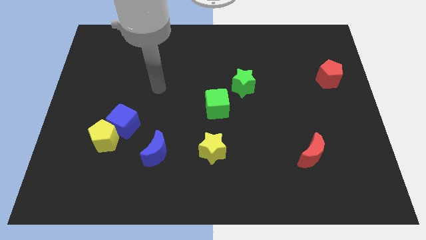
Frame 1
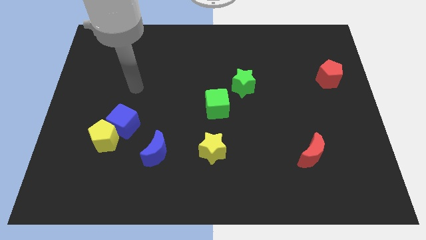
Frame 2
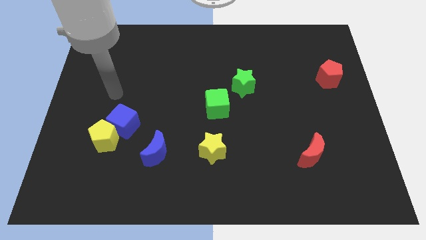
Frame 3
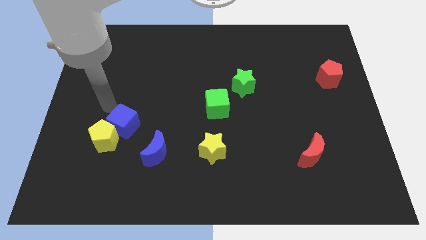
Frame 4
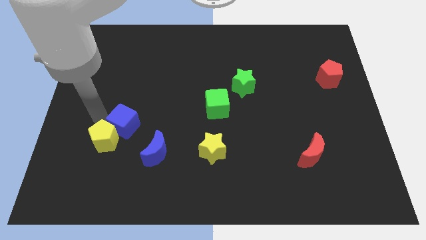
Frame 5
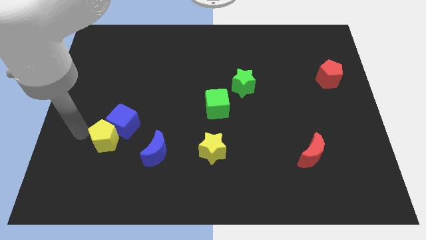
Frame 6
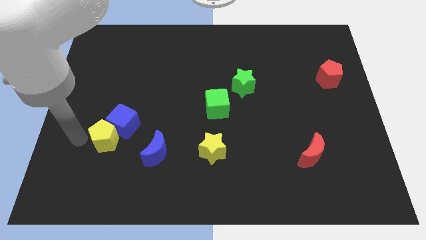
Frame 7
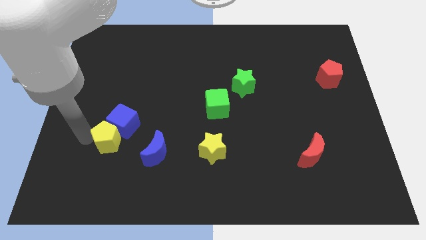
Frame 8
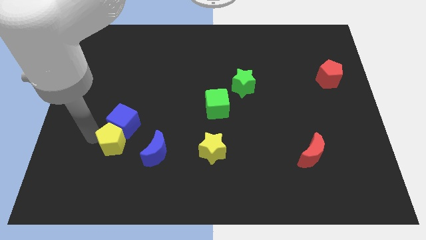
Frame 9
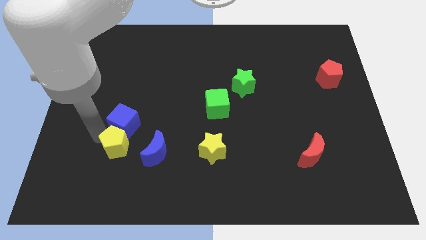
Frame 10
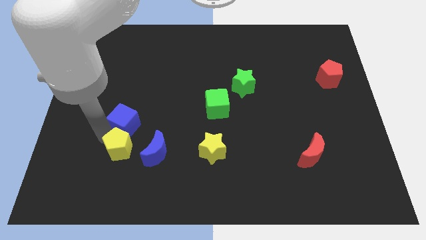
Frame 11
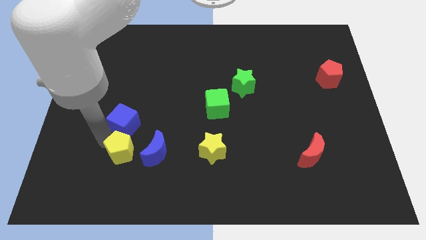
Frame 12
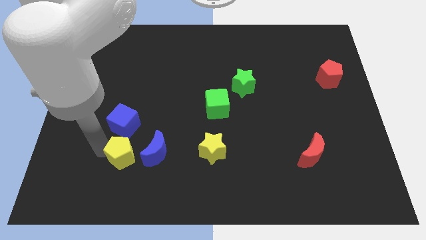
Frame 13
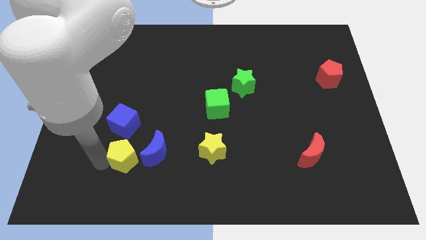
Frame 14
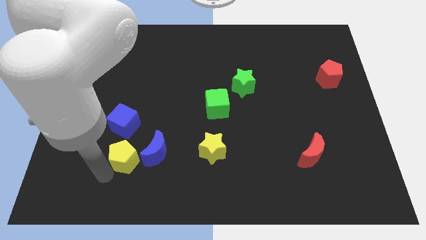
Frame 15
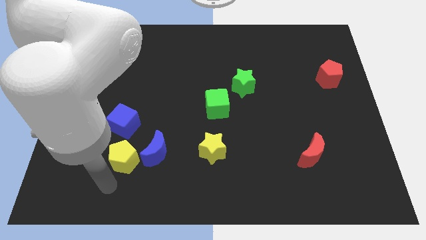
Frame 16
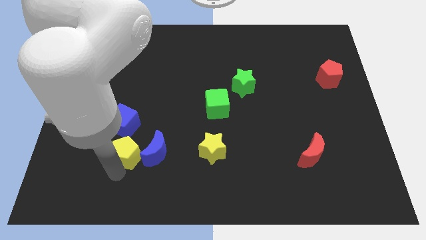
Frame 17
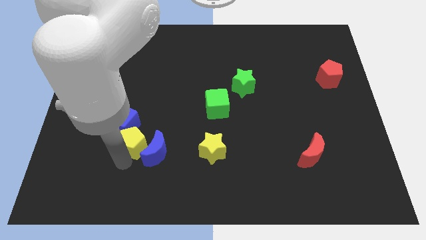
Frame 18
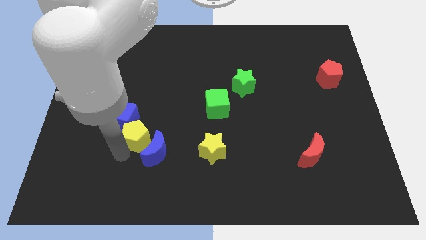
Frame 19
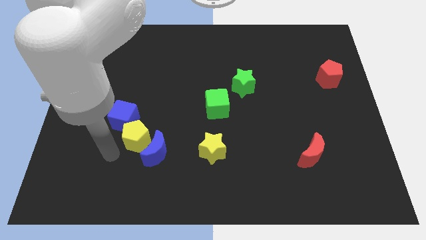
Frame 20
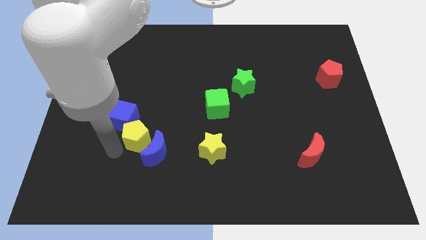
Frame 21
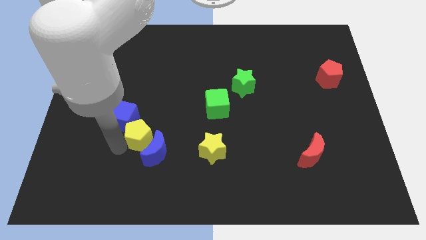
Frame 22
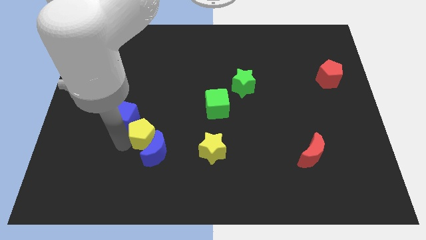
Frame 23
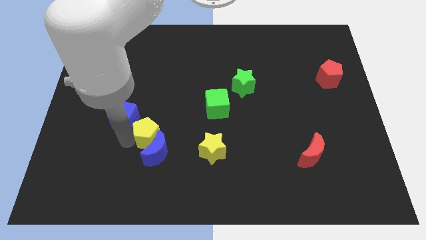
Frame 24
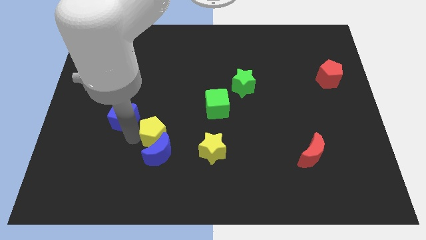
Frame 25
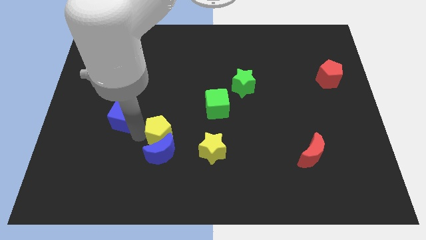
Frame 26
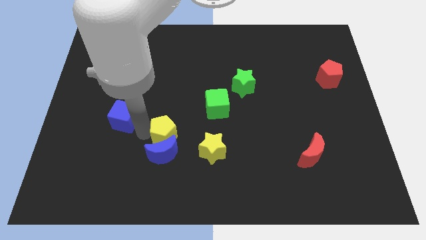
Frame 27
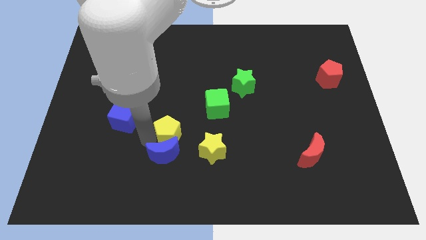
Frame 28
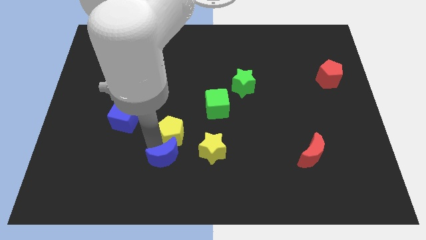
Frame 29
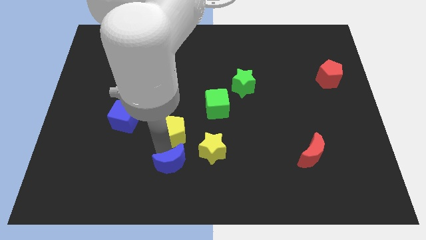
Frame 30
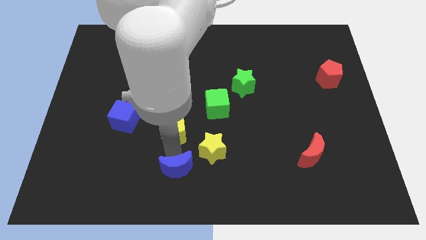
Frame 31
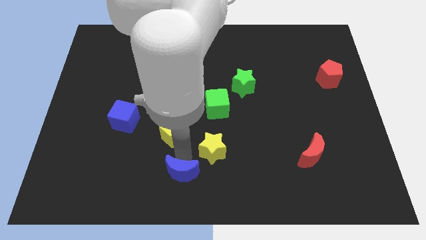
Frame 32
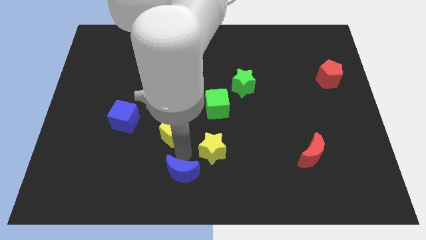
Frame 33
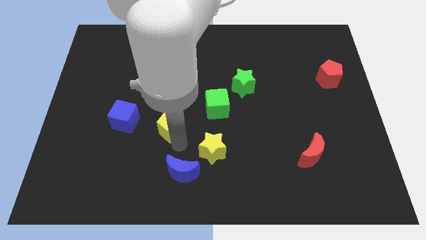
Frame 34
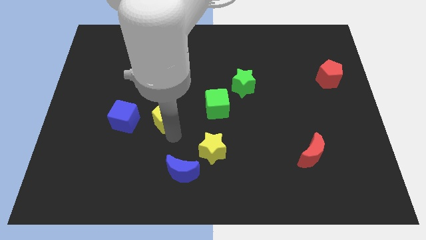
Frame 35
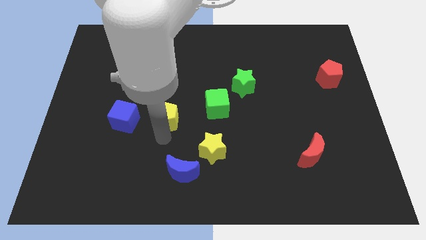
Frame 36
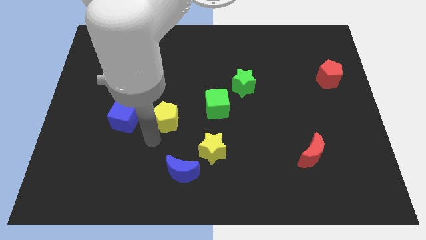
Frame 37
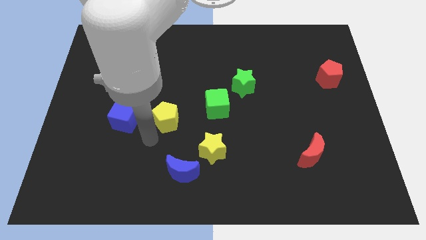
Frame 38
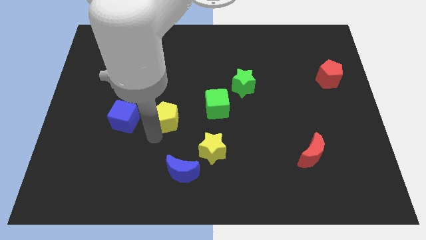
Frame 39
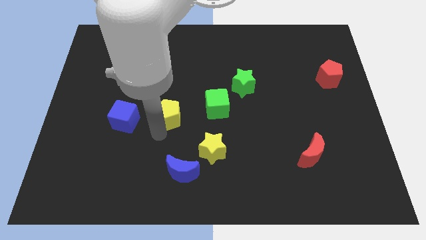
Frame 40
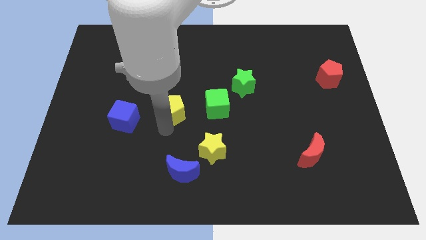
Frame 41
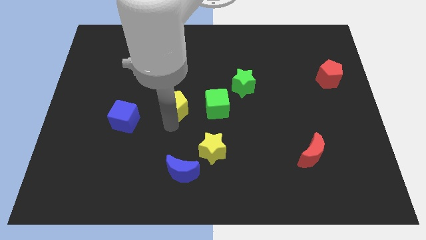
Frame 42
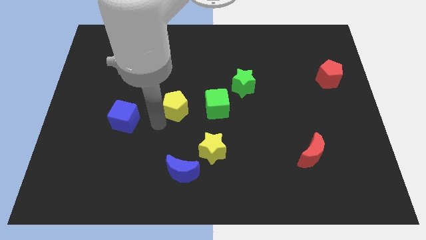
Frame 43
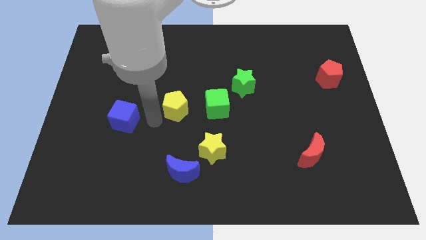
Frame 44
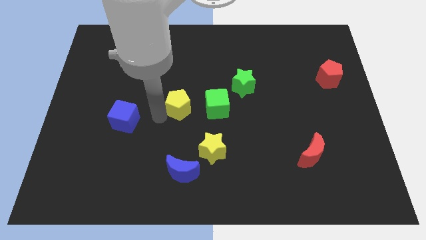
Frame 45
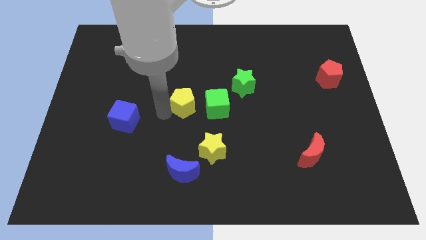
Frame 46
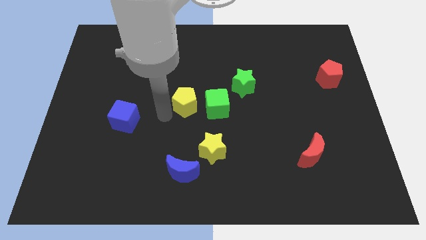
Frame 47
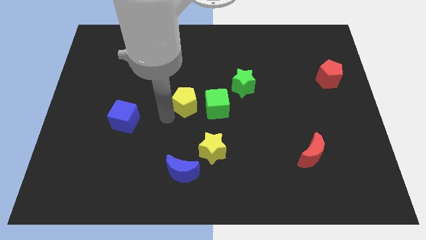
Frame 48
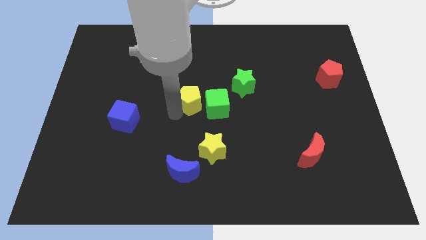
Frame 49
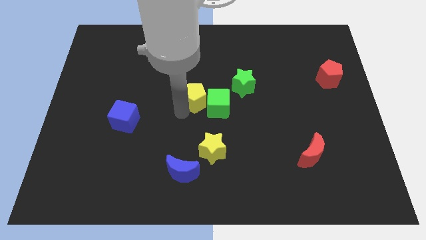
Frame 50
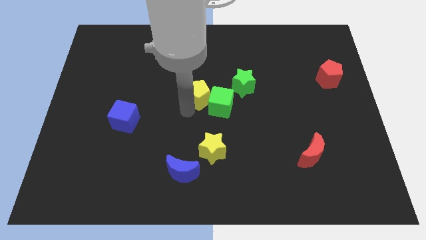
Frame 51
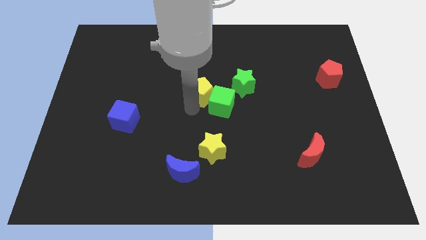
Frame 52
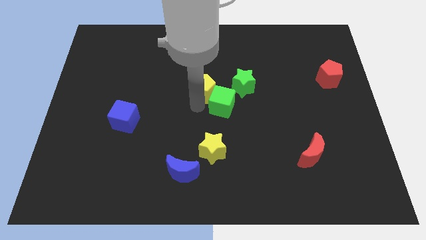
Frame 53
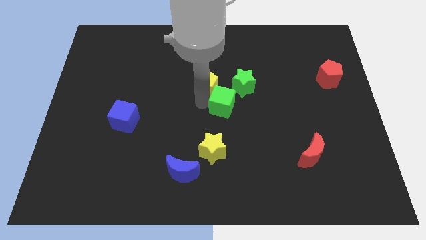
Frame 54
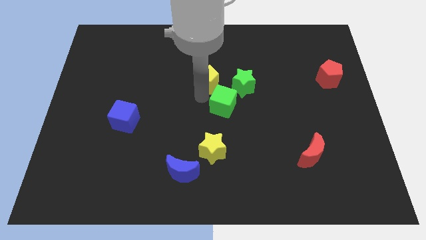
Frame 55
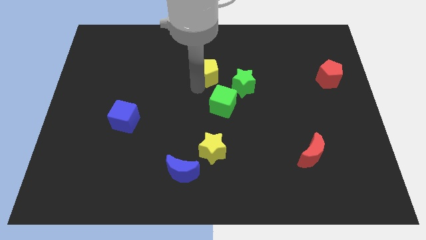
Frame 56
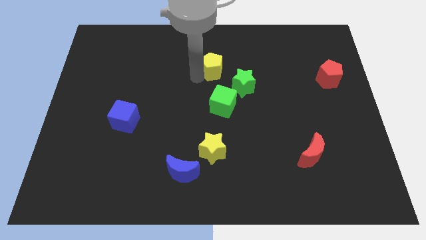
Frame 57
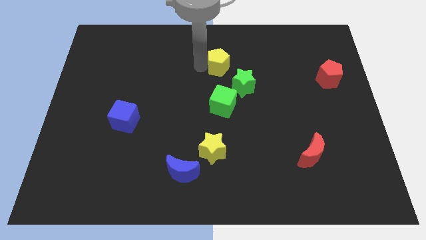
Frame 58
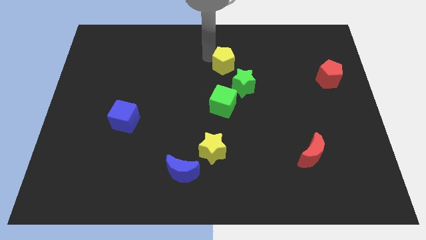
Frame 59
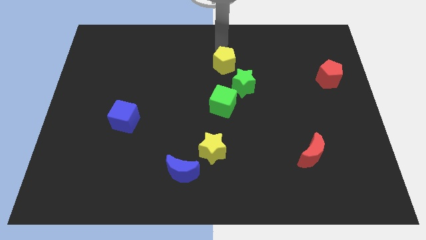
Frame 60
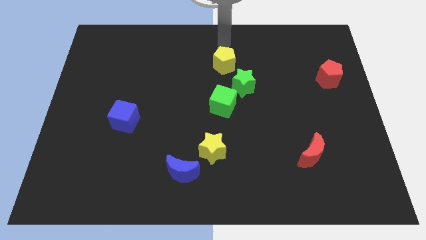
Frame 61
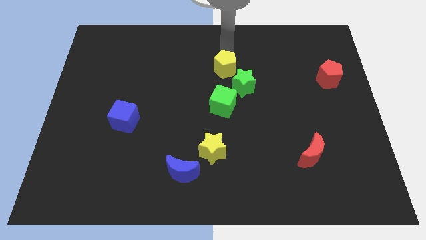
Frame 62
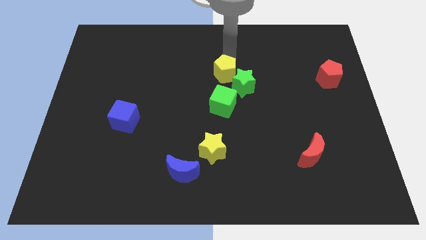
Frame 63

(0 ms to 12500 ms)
move the yellow pentagon close to the green star

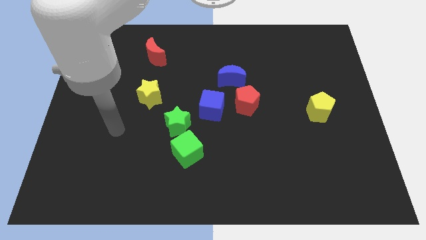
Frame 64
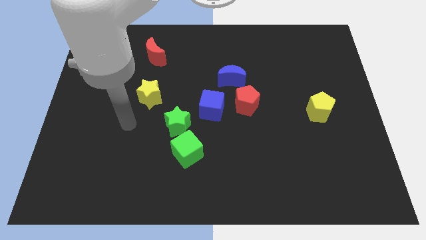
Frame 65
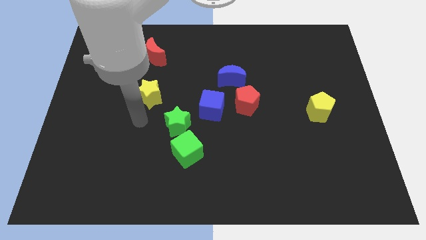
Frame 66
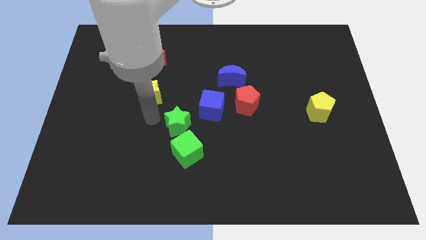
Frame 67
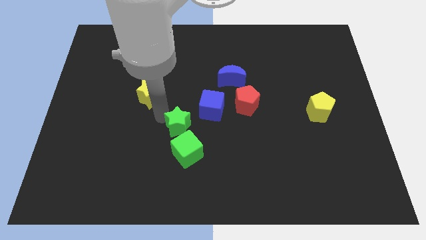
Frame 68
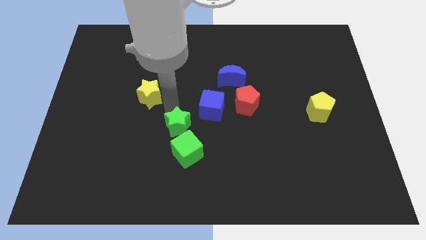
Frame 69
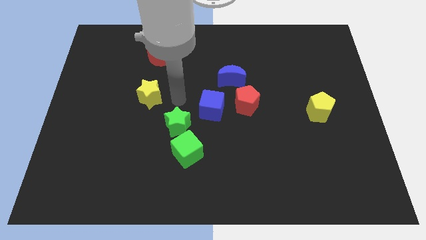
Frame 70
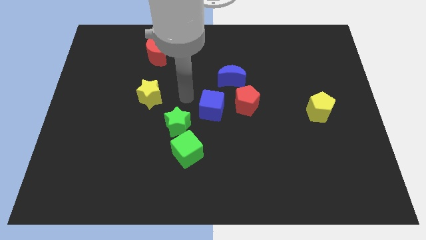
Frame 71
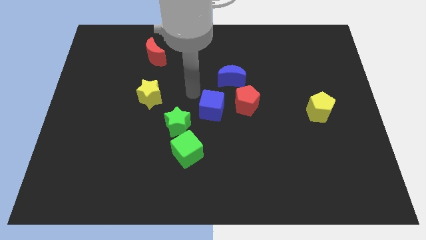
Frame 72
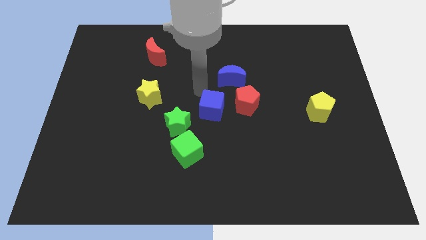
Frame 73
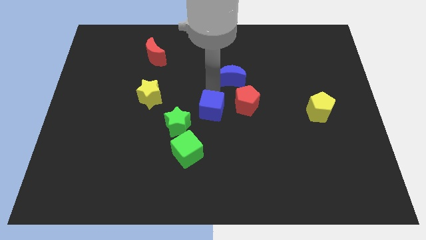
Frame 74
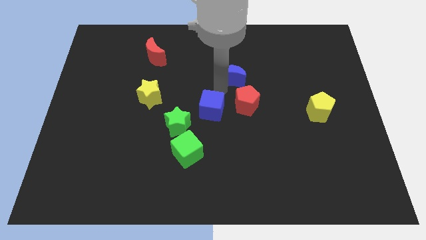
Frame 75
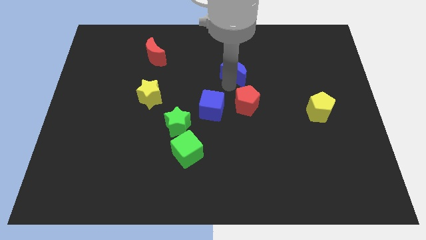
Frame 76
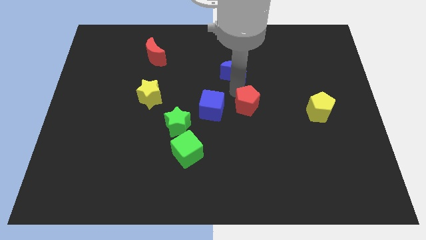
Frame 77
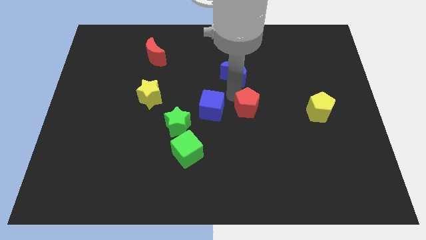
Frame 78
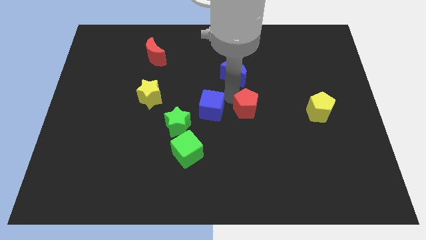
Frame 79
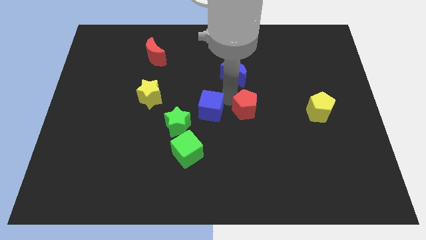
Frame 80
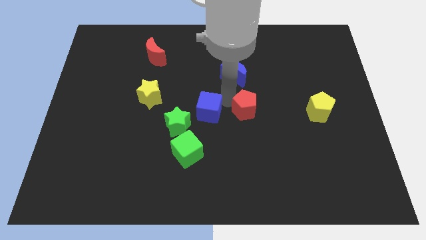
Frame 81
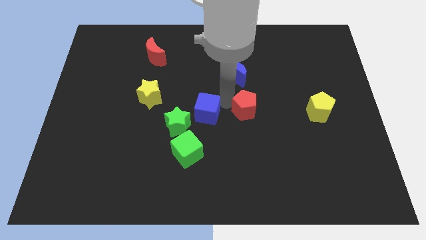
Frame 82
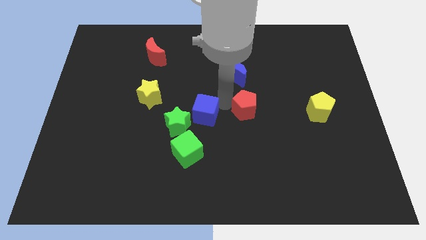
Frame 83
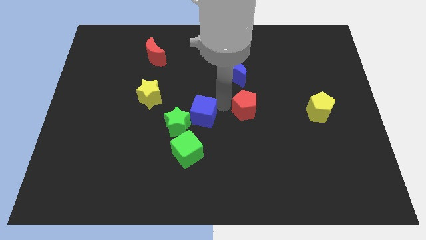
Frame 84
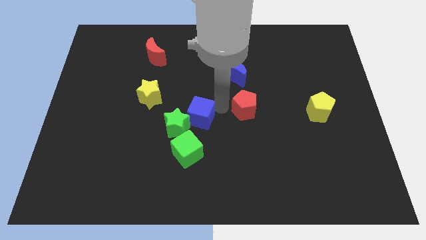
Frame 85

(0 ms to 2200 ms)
push the blue cube towards the green star
